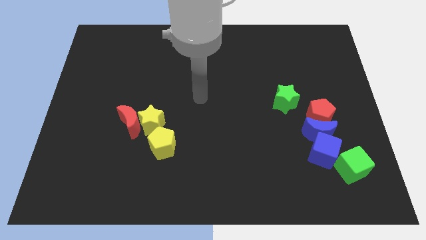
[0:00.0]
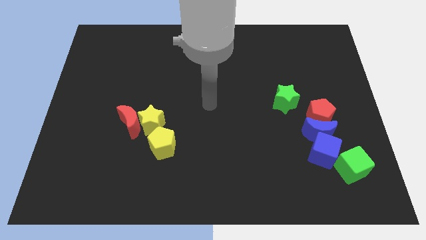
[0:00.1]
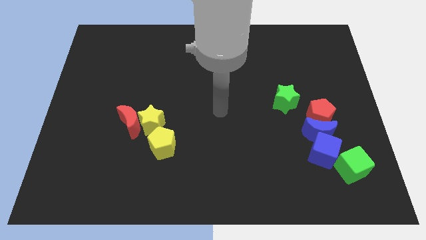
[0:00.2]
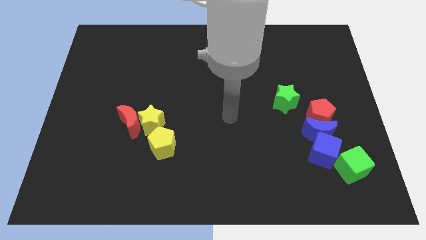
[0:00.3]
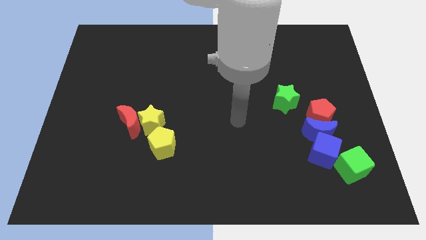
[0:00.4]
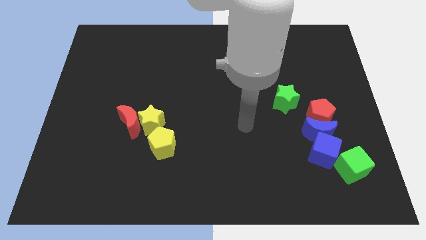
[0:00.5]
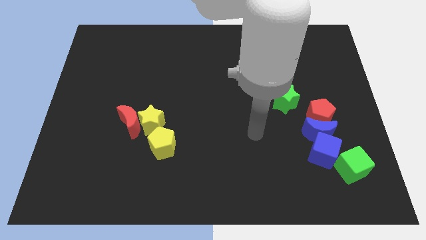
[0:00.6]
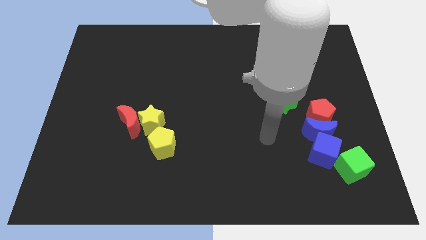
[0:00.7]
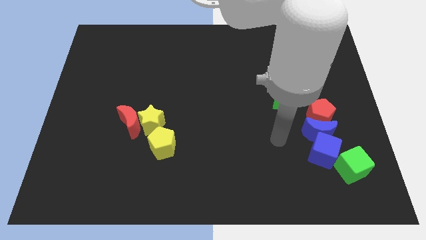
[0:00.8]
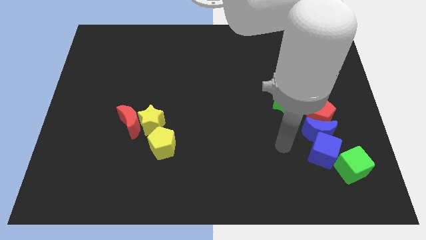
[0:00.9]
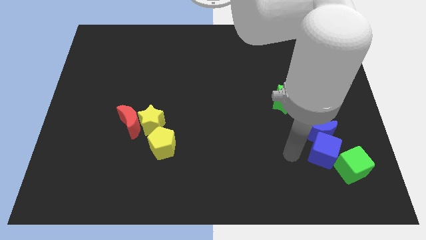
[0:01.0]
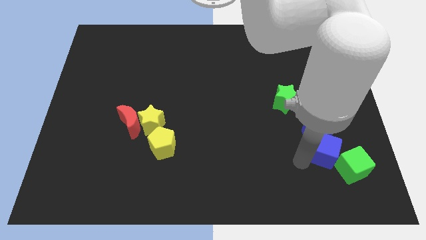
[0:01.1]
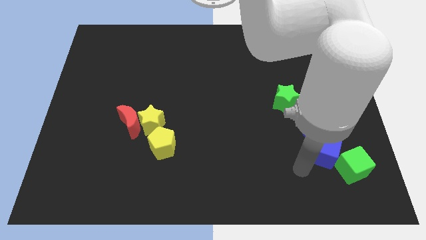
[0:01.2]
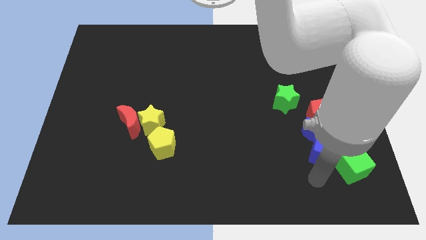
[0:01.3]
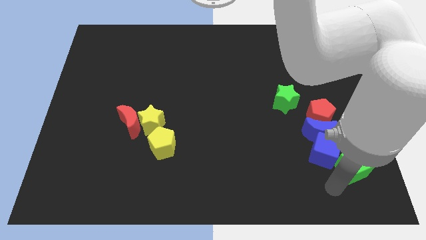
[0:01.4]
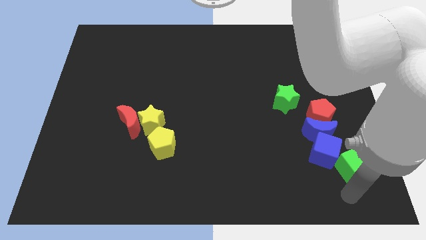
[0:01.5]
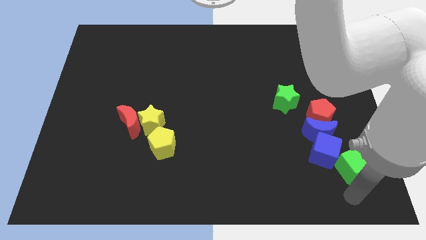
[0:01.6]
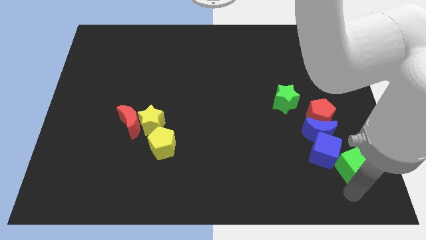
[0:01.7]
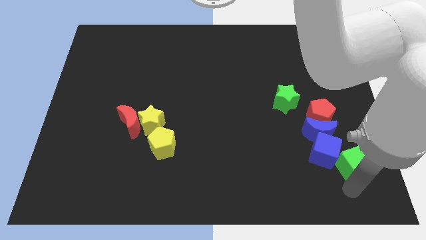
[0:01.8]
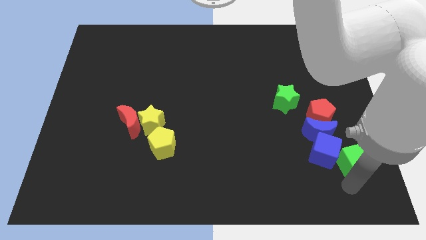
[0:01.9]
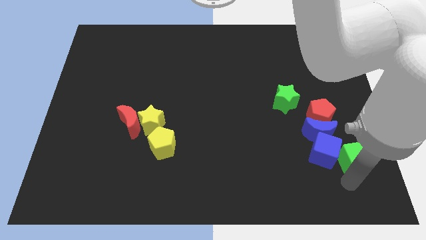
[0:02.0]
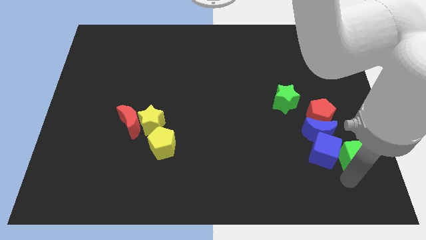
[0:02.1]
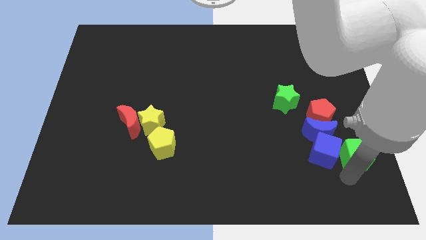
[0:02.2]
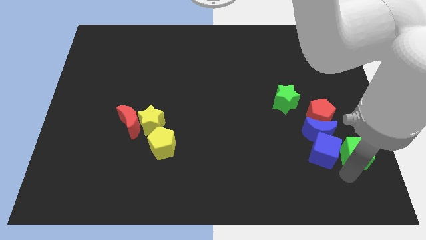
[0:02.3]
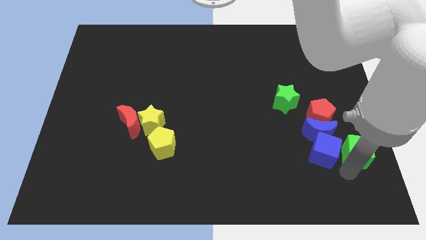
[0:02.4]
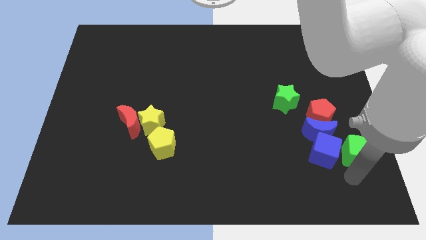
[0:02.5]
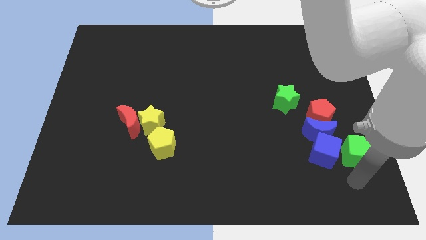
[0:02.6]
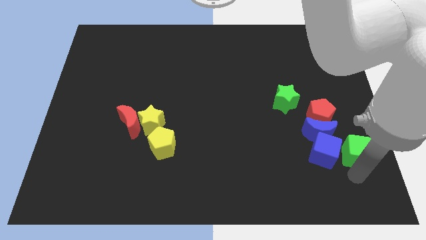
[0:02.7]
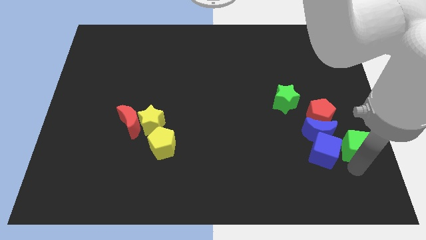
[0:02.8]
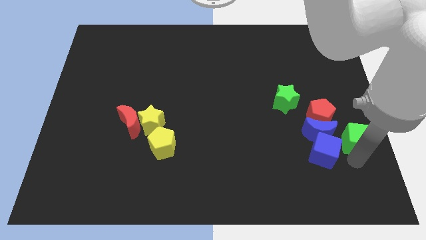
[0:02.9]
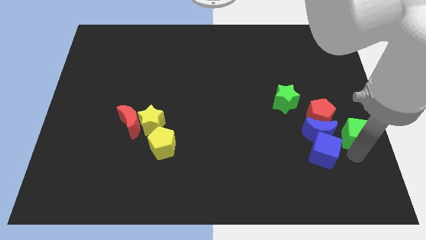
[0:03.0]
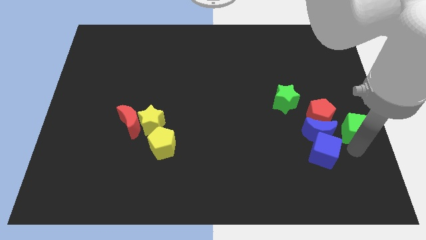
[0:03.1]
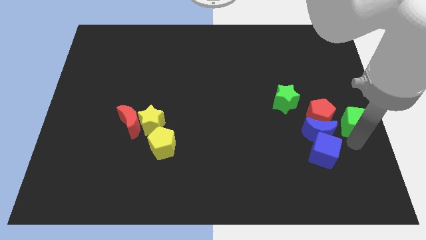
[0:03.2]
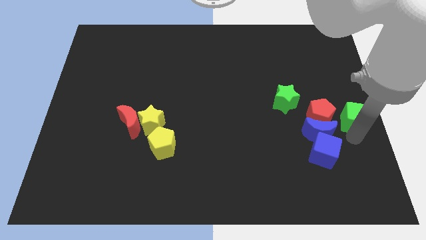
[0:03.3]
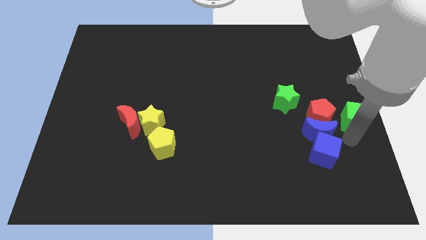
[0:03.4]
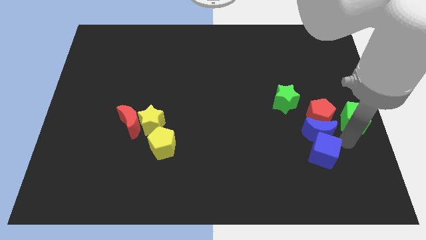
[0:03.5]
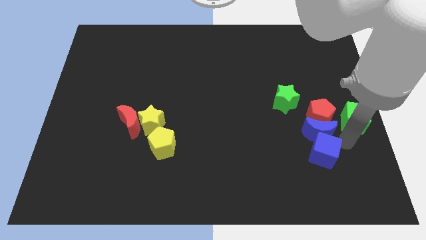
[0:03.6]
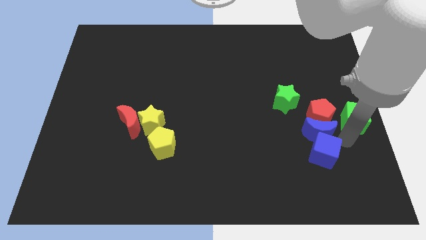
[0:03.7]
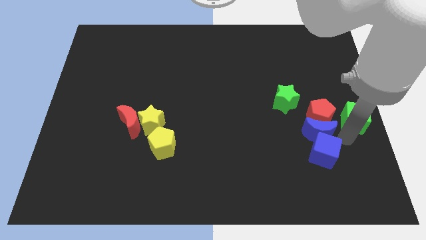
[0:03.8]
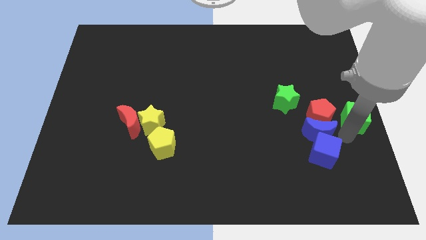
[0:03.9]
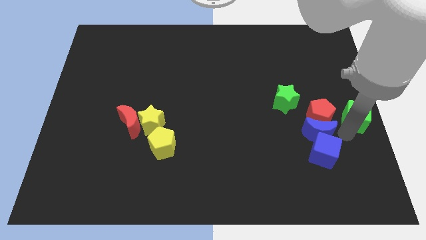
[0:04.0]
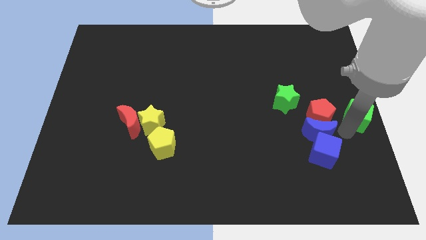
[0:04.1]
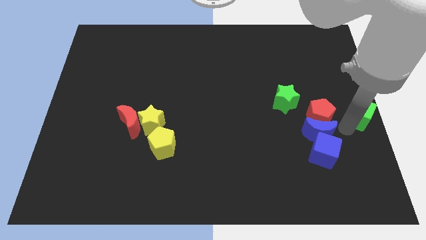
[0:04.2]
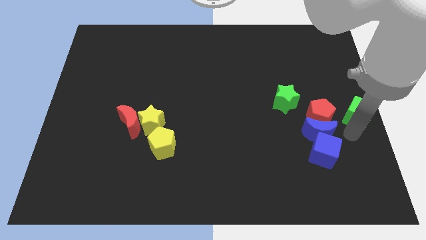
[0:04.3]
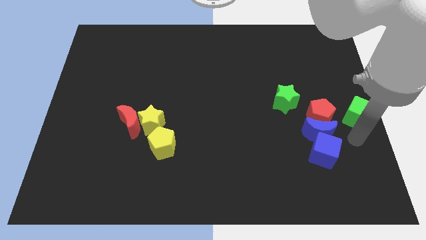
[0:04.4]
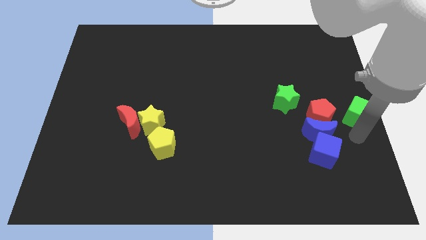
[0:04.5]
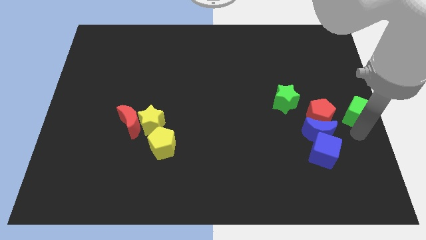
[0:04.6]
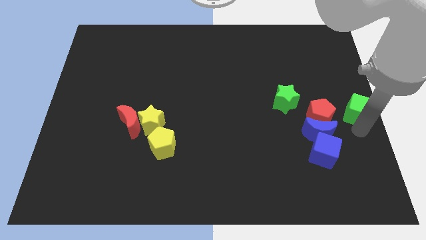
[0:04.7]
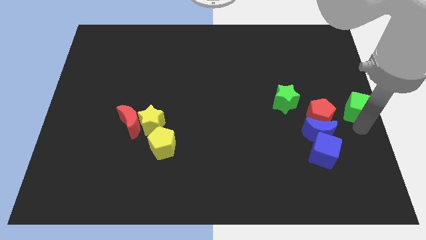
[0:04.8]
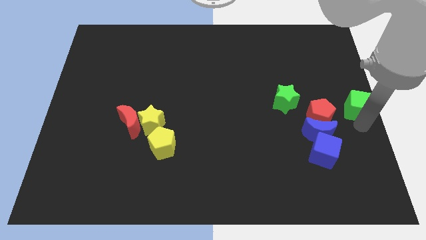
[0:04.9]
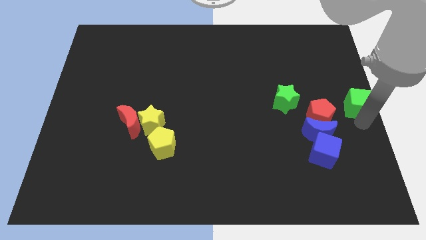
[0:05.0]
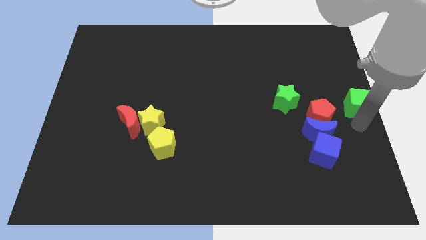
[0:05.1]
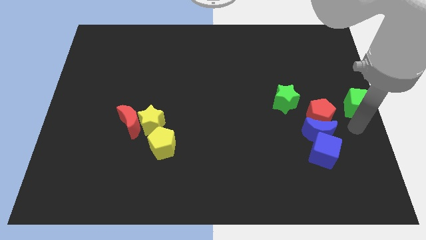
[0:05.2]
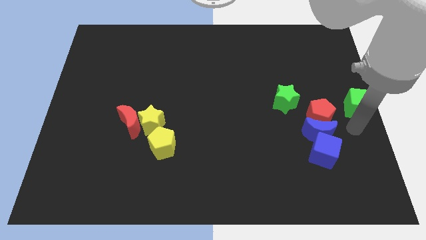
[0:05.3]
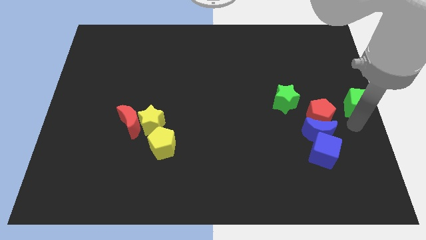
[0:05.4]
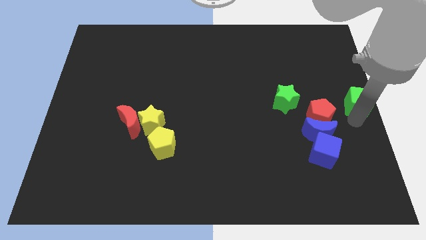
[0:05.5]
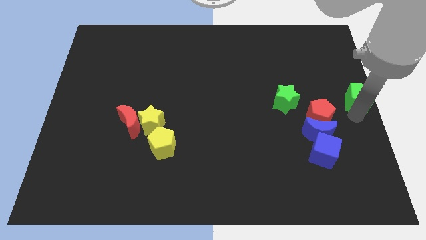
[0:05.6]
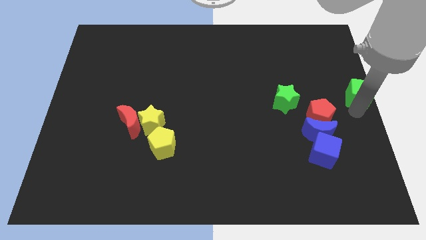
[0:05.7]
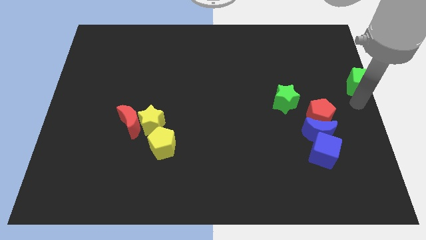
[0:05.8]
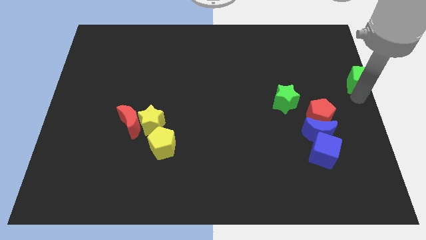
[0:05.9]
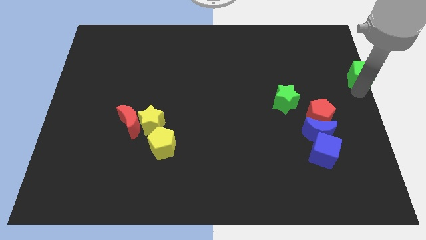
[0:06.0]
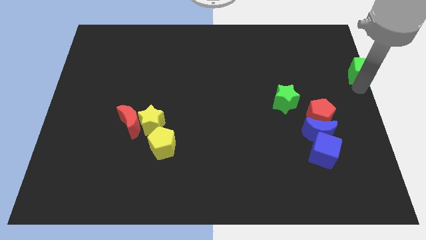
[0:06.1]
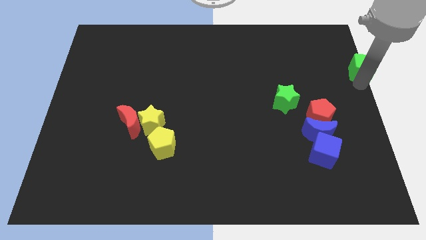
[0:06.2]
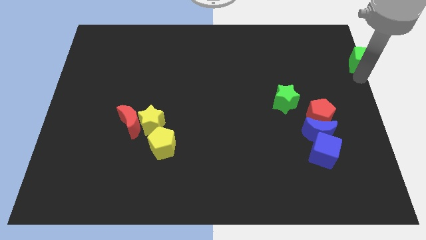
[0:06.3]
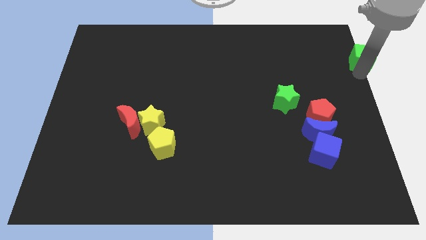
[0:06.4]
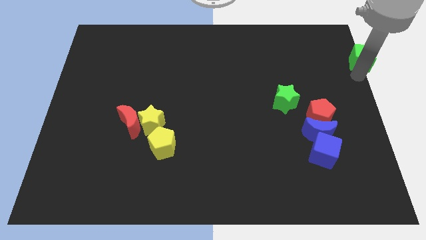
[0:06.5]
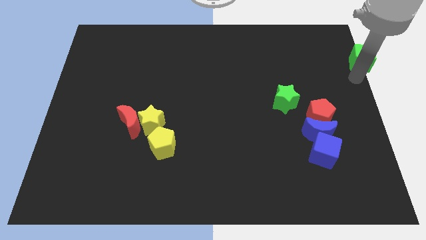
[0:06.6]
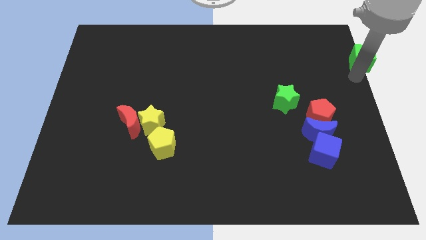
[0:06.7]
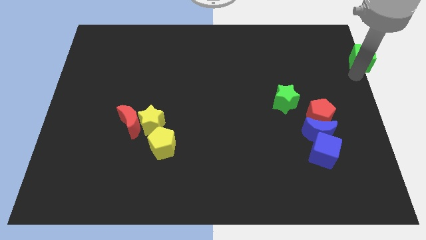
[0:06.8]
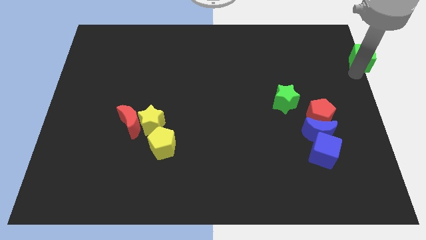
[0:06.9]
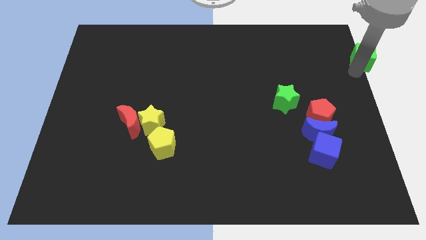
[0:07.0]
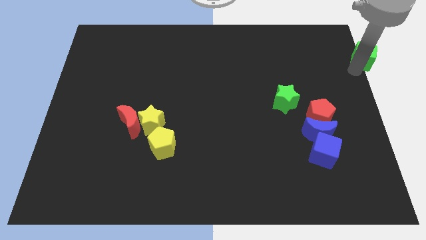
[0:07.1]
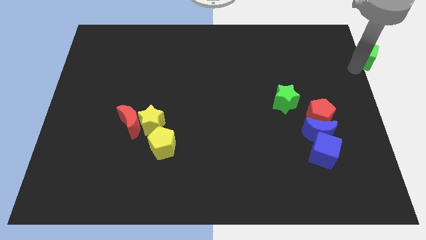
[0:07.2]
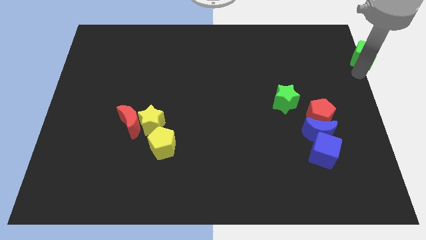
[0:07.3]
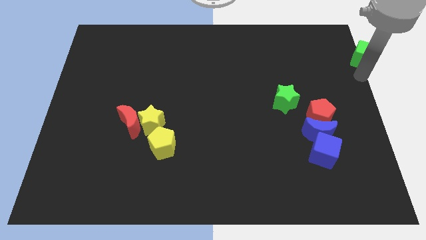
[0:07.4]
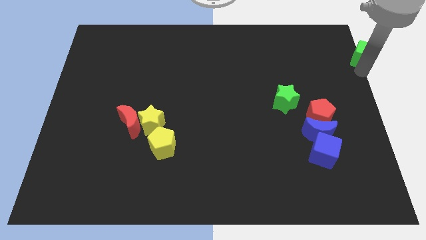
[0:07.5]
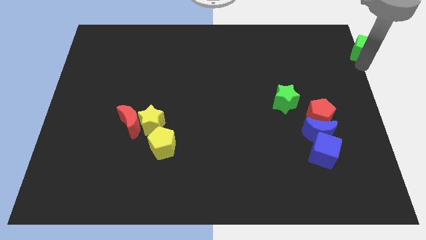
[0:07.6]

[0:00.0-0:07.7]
put the green cube to the top right
